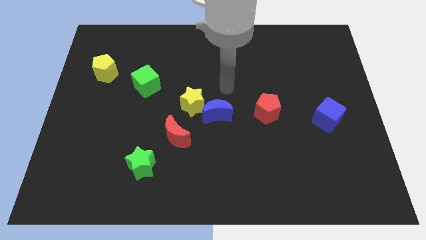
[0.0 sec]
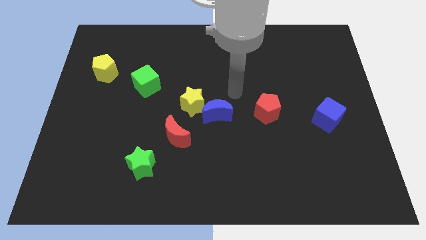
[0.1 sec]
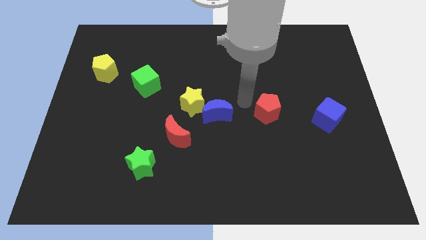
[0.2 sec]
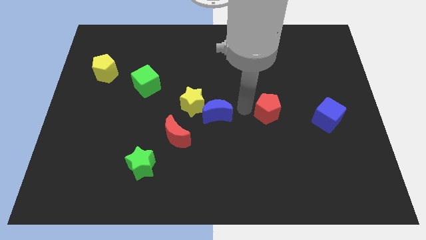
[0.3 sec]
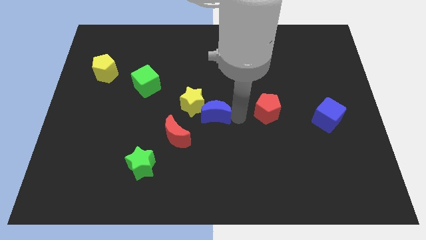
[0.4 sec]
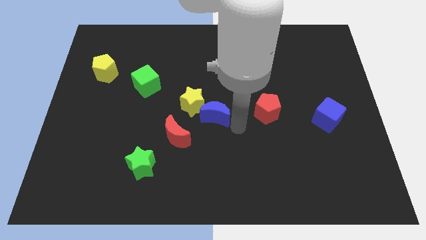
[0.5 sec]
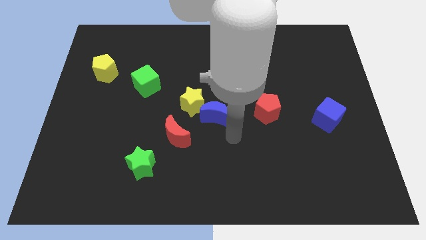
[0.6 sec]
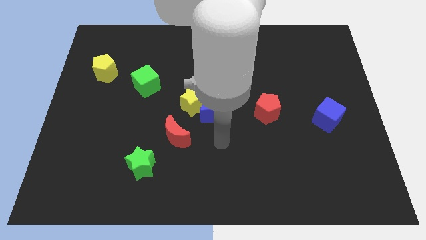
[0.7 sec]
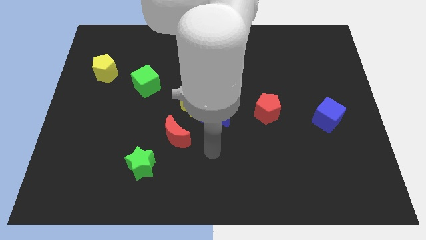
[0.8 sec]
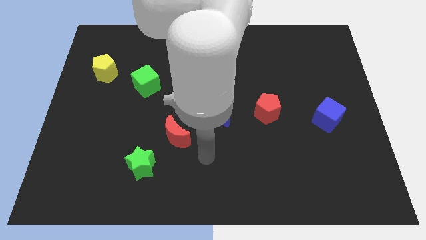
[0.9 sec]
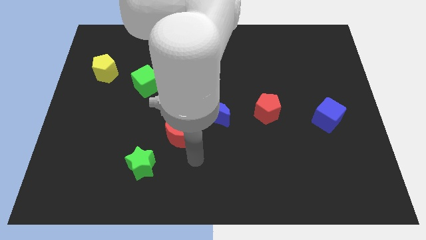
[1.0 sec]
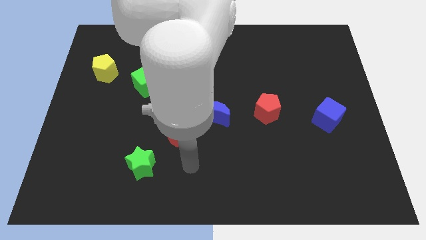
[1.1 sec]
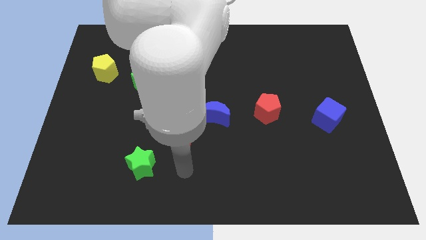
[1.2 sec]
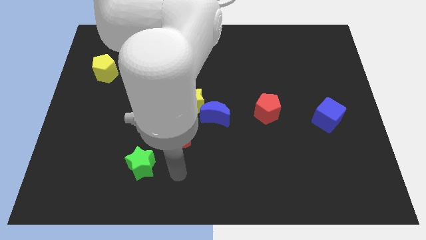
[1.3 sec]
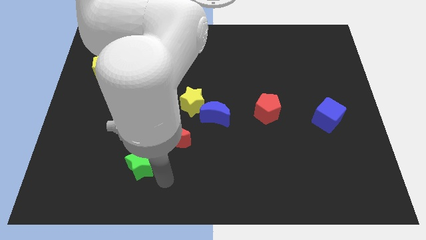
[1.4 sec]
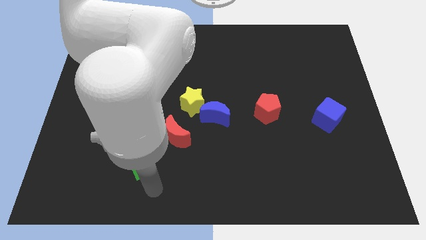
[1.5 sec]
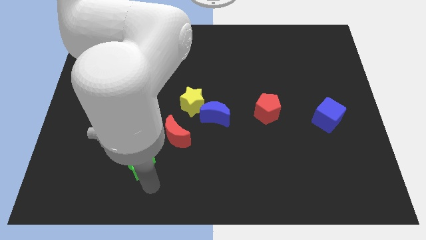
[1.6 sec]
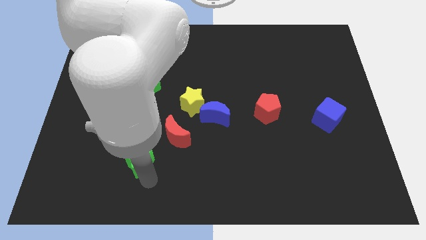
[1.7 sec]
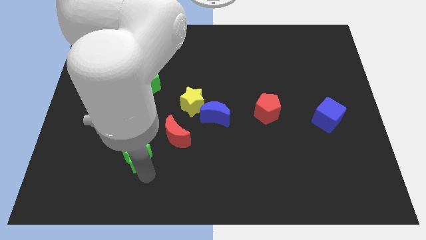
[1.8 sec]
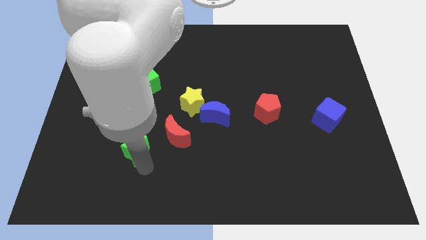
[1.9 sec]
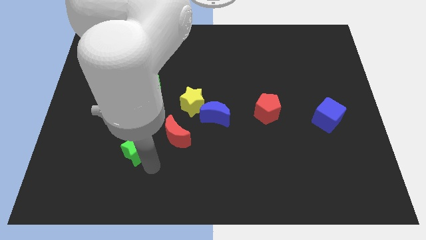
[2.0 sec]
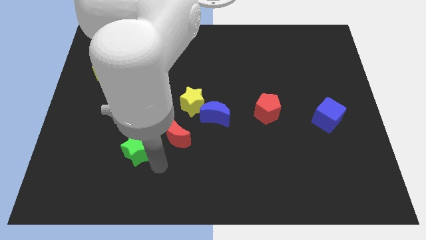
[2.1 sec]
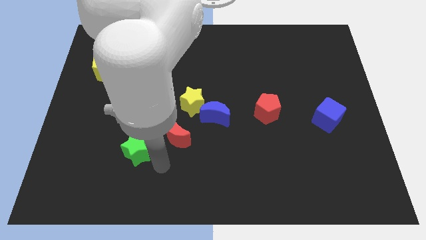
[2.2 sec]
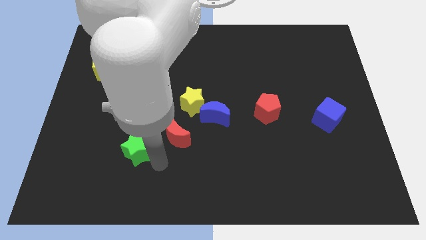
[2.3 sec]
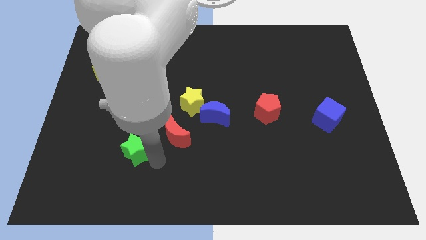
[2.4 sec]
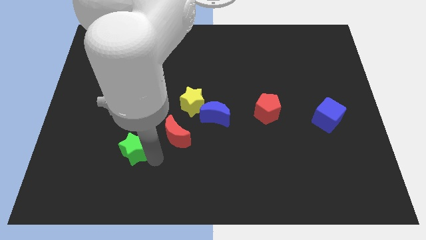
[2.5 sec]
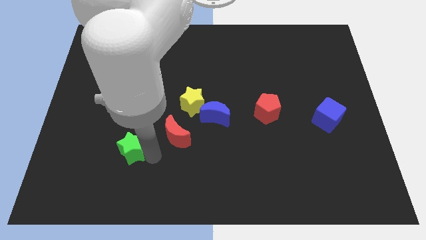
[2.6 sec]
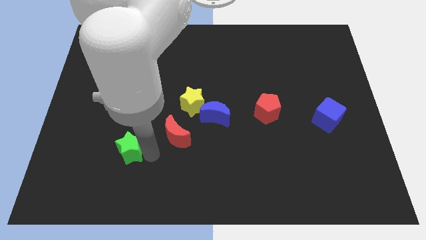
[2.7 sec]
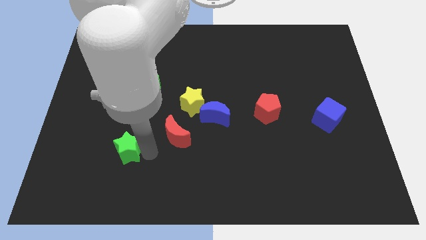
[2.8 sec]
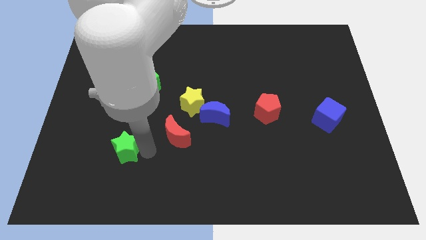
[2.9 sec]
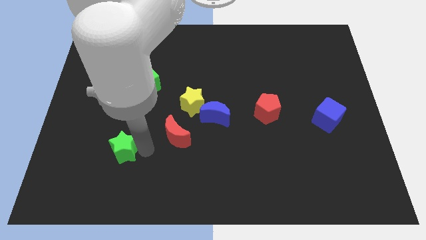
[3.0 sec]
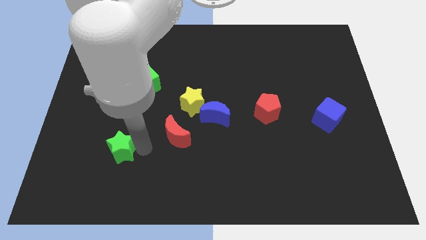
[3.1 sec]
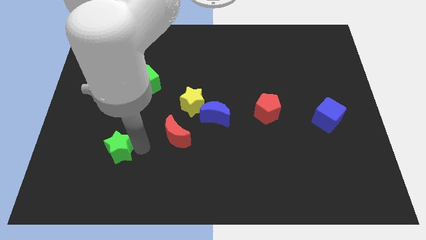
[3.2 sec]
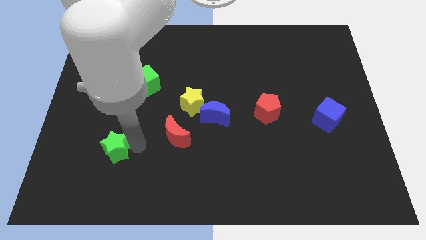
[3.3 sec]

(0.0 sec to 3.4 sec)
slightly slide the green star upwards and to the left

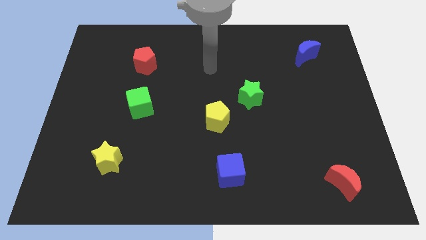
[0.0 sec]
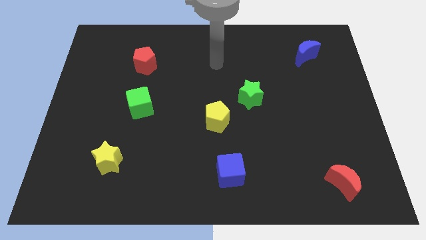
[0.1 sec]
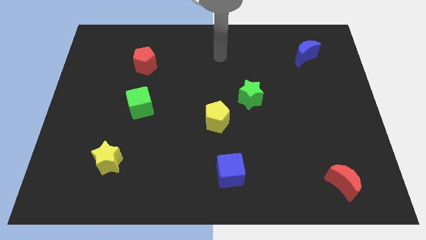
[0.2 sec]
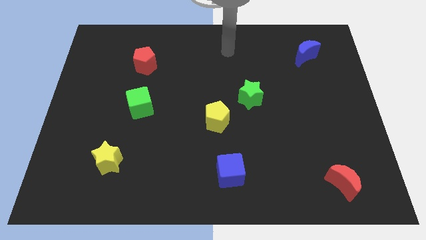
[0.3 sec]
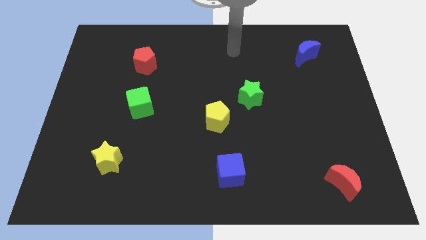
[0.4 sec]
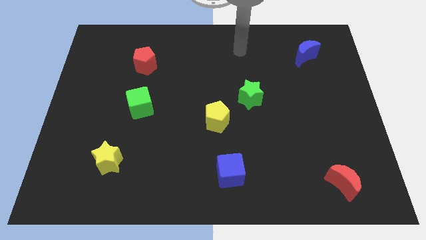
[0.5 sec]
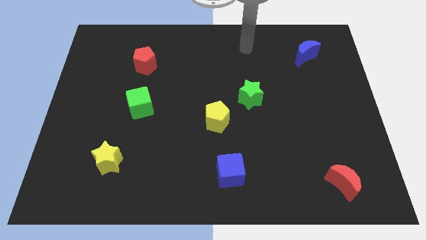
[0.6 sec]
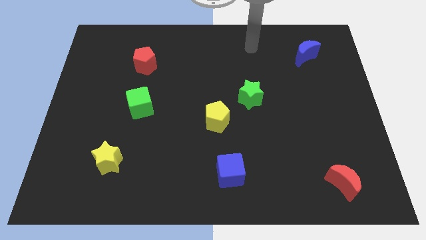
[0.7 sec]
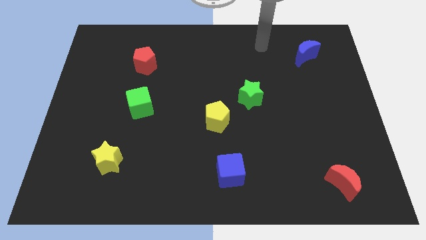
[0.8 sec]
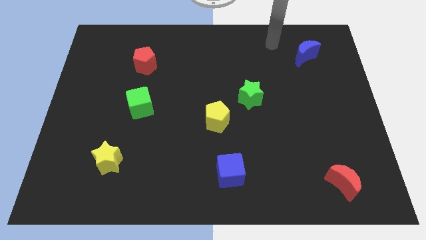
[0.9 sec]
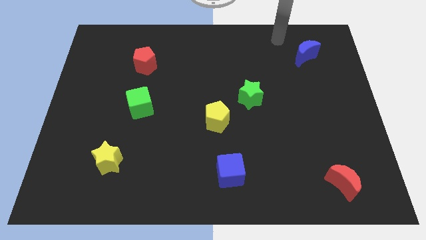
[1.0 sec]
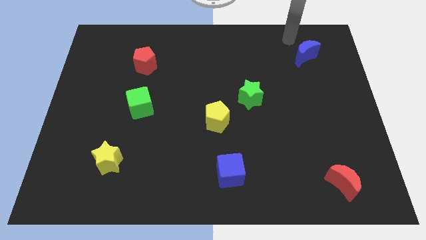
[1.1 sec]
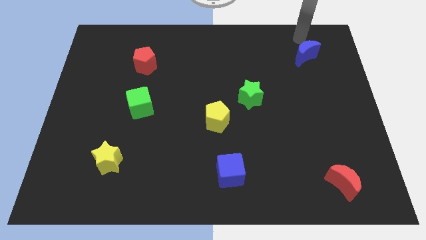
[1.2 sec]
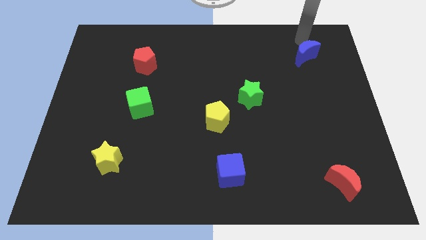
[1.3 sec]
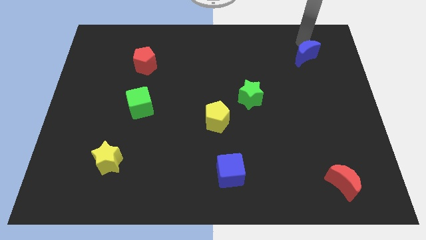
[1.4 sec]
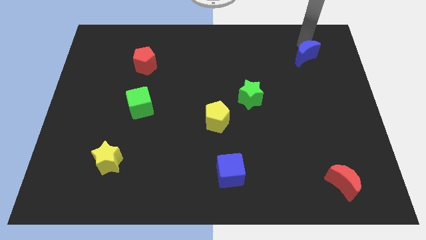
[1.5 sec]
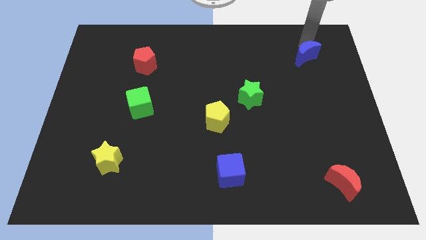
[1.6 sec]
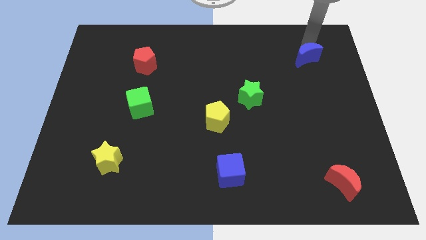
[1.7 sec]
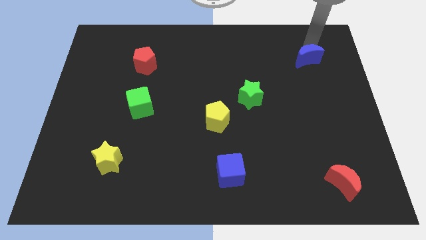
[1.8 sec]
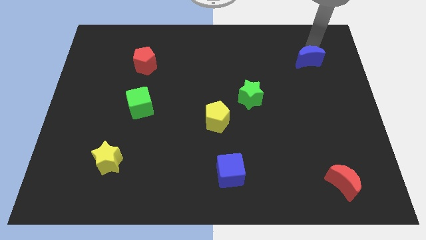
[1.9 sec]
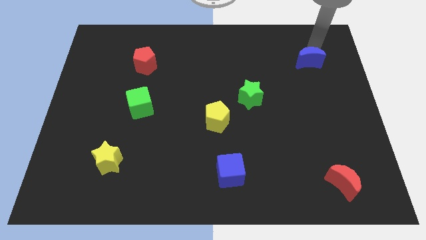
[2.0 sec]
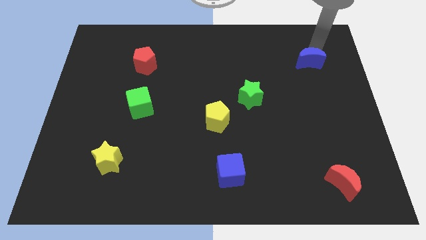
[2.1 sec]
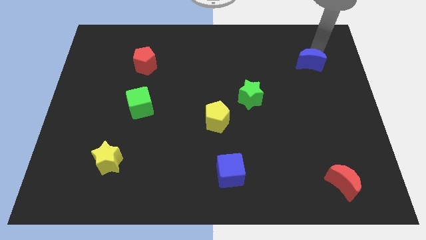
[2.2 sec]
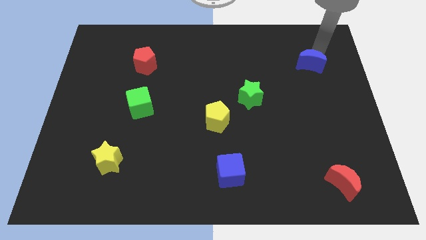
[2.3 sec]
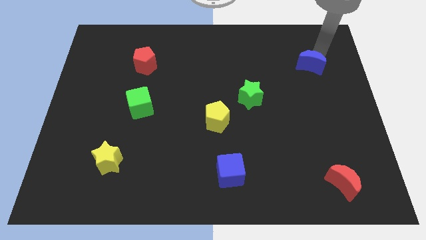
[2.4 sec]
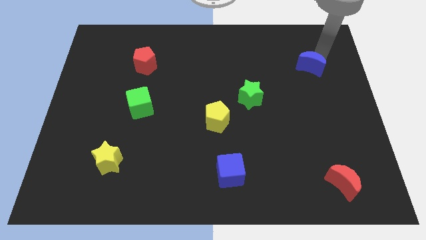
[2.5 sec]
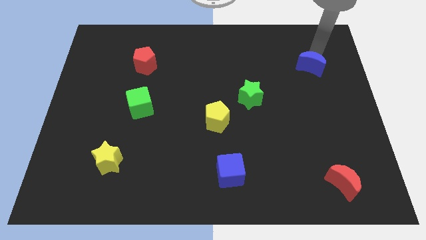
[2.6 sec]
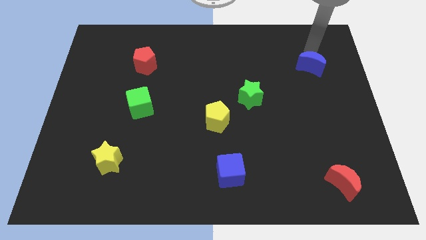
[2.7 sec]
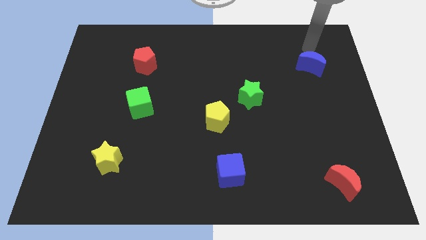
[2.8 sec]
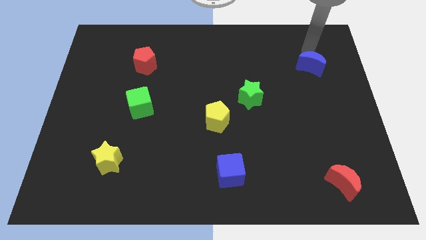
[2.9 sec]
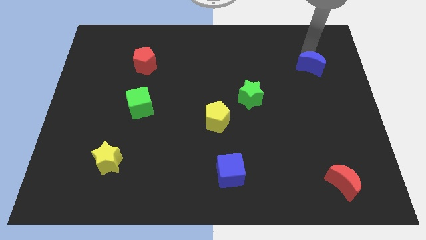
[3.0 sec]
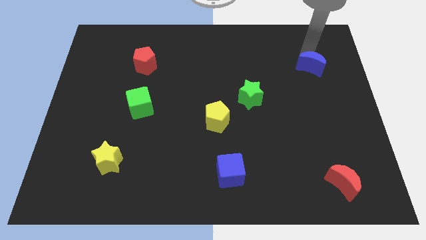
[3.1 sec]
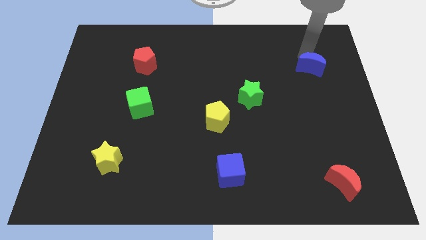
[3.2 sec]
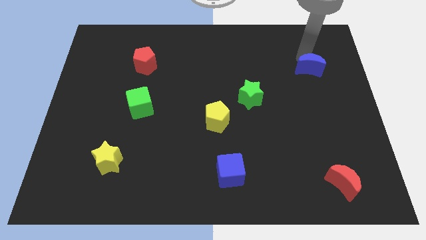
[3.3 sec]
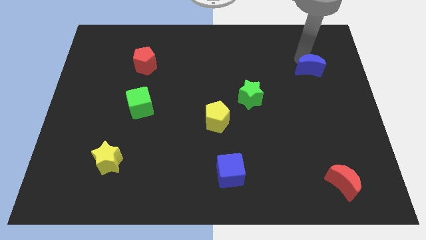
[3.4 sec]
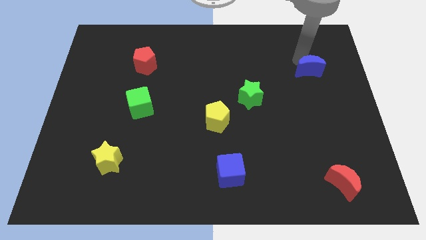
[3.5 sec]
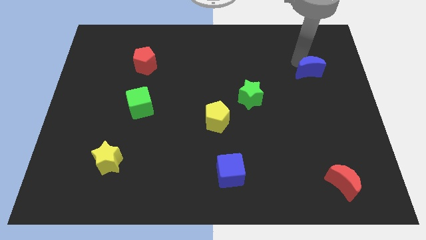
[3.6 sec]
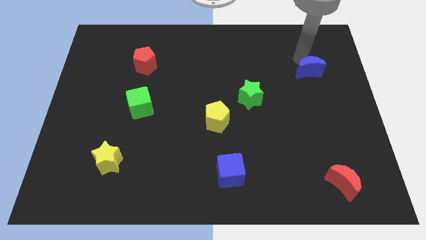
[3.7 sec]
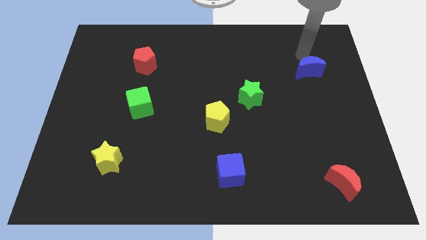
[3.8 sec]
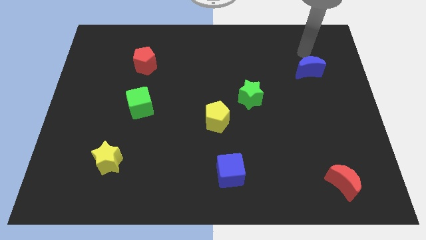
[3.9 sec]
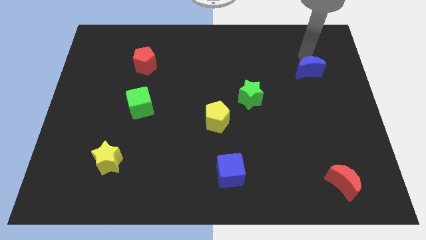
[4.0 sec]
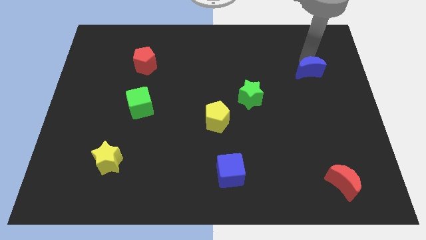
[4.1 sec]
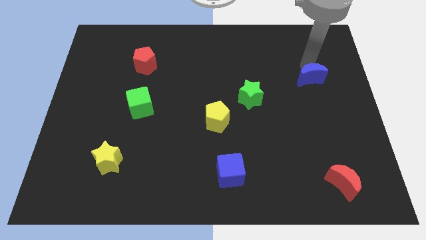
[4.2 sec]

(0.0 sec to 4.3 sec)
move the blue moon down a little
